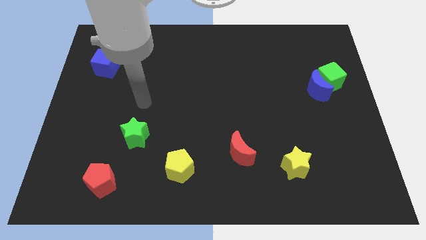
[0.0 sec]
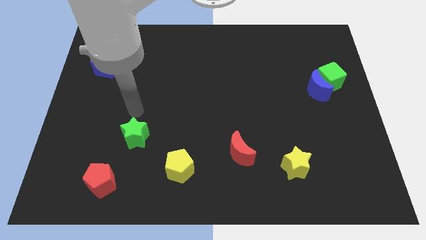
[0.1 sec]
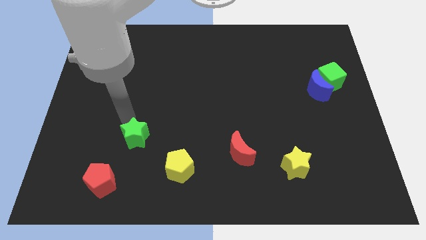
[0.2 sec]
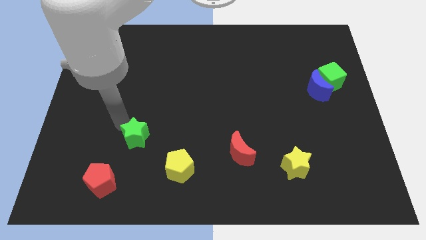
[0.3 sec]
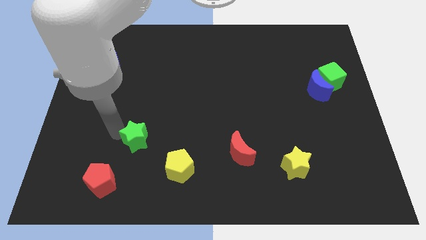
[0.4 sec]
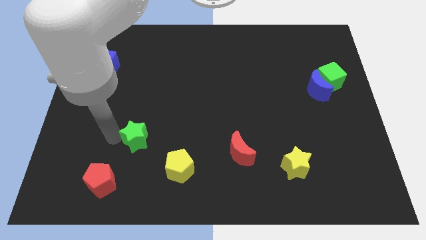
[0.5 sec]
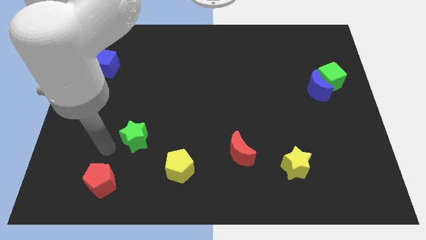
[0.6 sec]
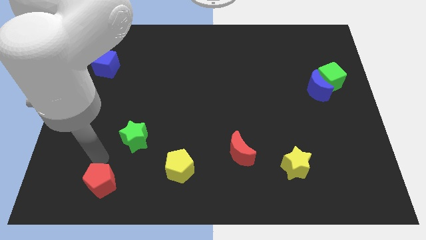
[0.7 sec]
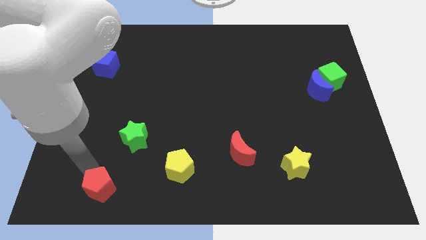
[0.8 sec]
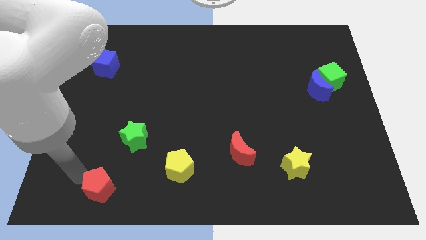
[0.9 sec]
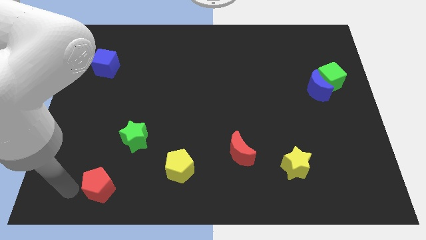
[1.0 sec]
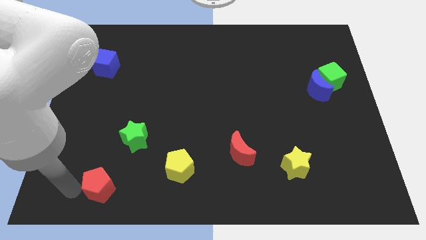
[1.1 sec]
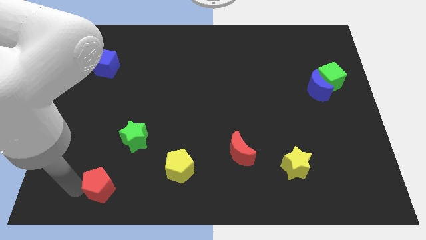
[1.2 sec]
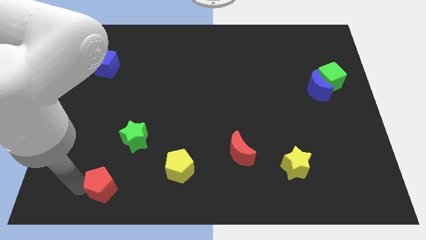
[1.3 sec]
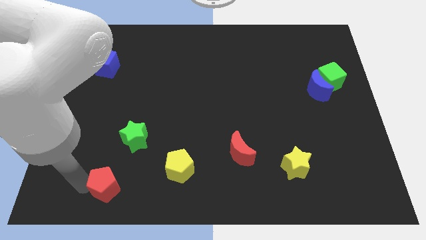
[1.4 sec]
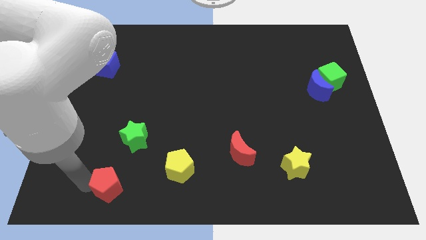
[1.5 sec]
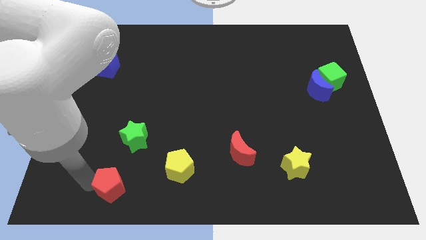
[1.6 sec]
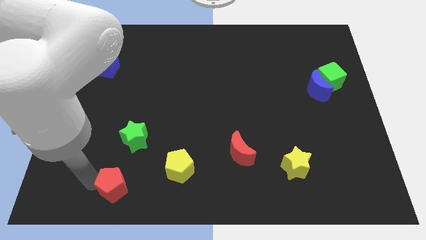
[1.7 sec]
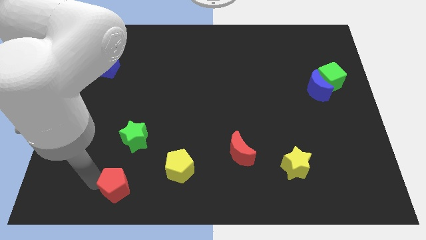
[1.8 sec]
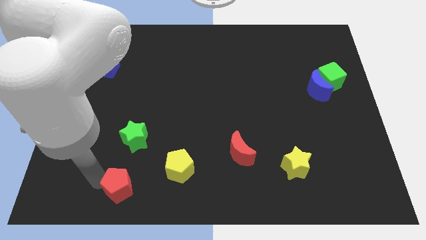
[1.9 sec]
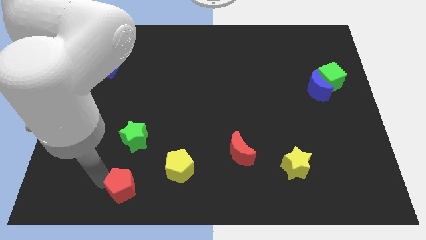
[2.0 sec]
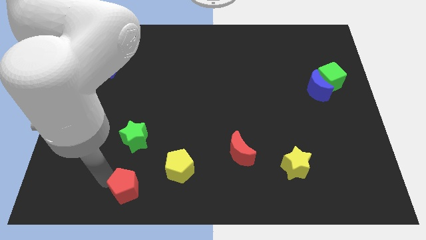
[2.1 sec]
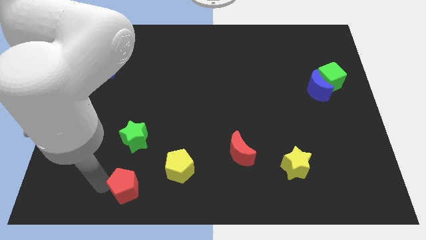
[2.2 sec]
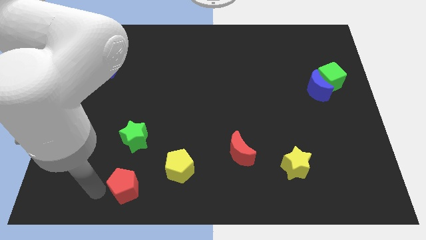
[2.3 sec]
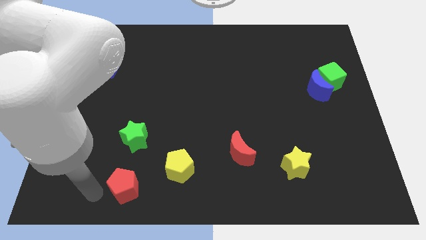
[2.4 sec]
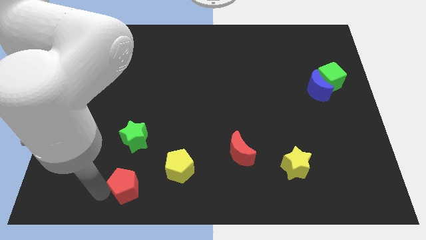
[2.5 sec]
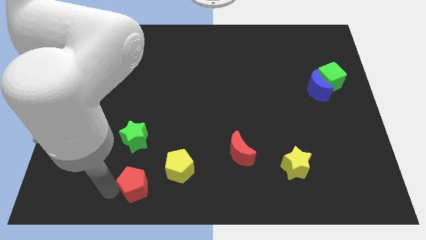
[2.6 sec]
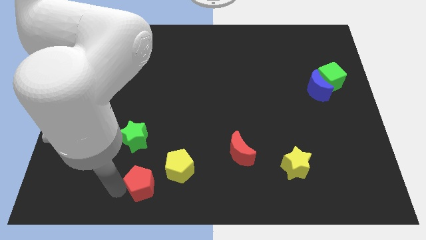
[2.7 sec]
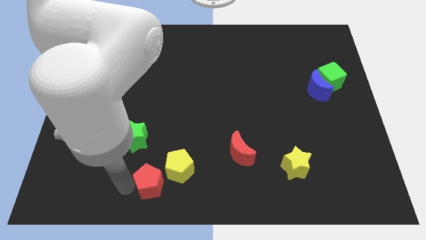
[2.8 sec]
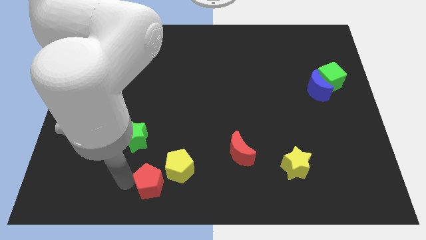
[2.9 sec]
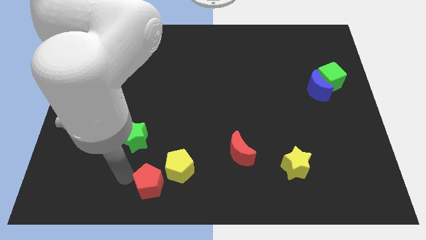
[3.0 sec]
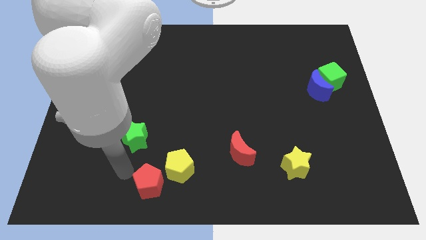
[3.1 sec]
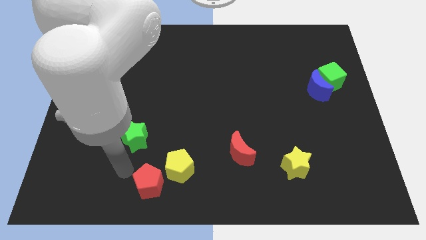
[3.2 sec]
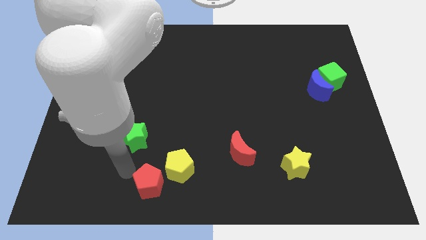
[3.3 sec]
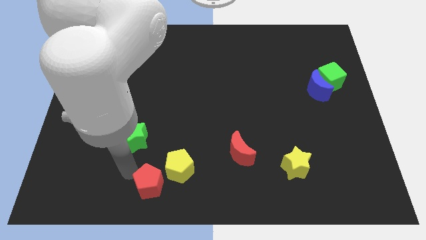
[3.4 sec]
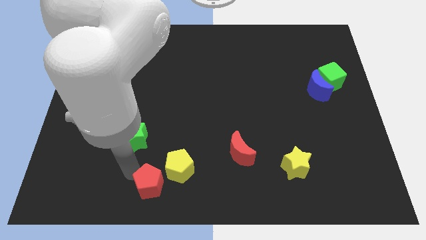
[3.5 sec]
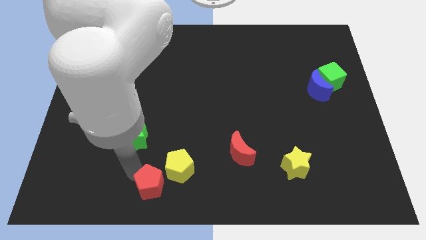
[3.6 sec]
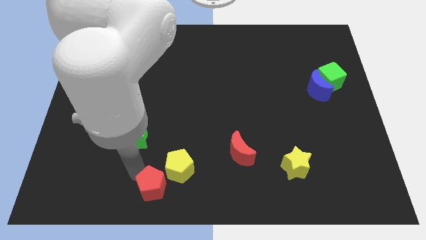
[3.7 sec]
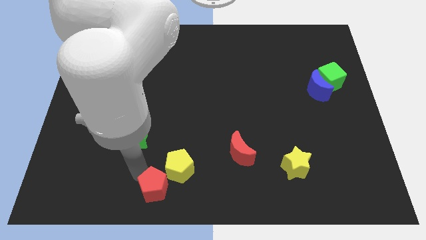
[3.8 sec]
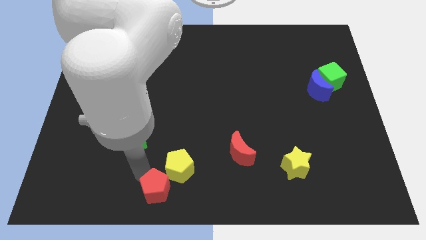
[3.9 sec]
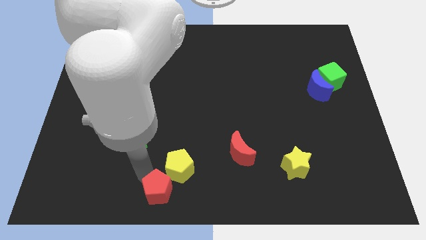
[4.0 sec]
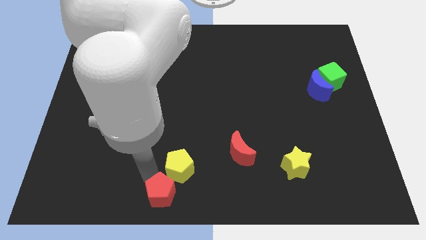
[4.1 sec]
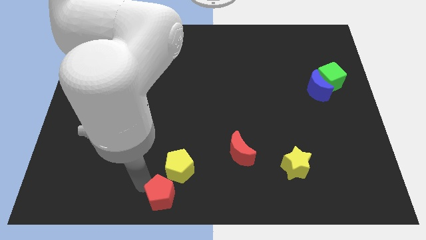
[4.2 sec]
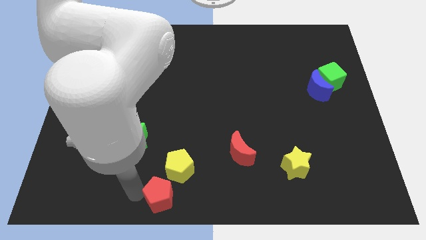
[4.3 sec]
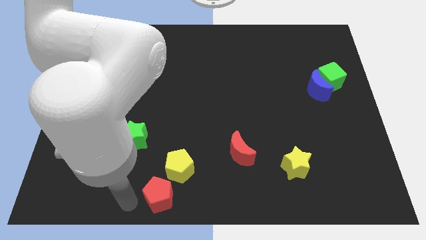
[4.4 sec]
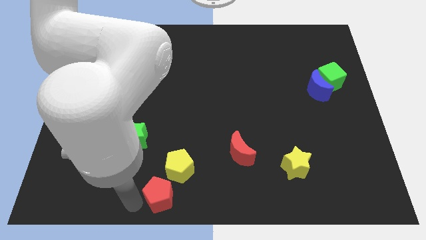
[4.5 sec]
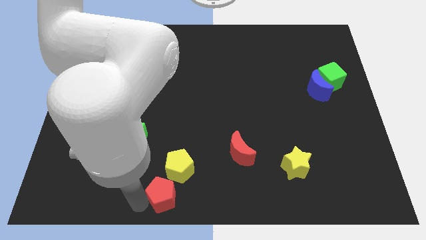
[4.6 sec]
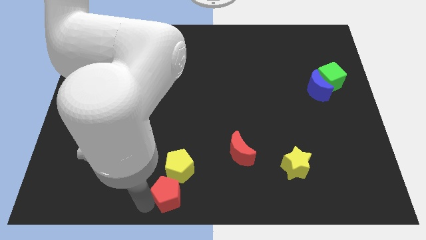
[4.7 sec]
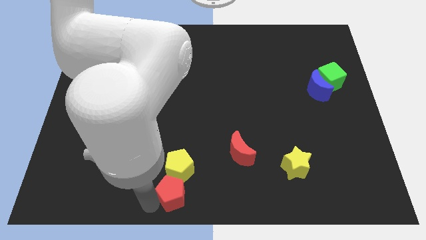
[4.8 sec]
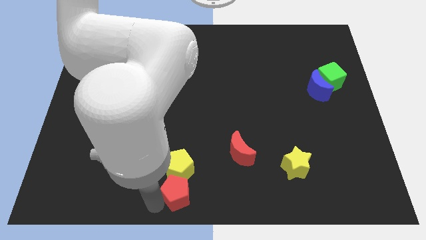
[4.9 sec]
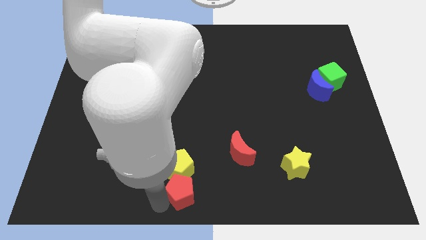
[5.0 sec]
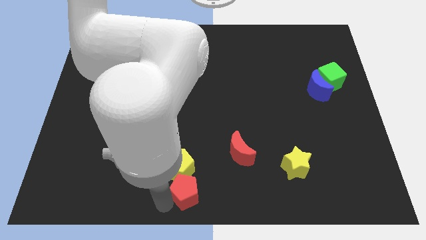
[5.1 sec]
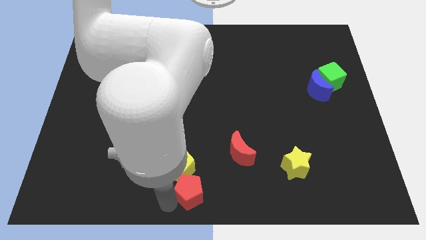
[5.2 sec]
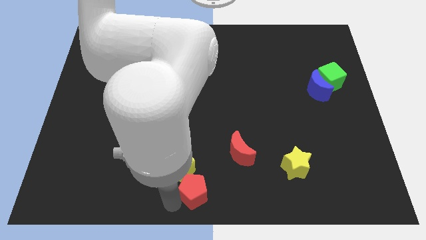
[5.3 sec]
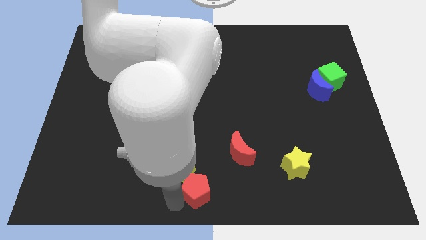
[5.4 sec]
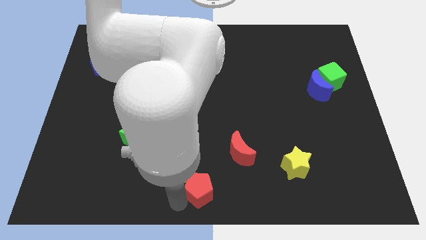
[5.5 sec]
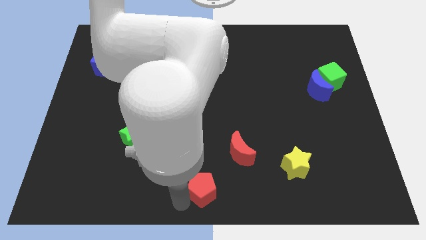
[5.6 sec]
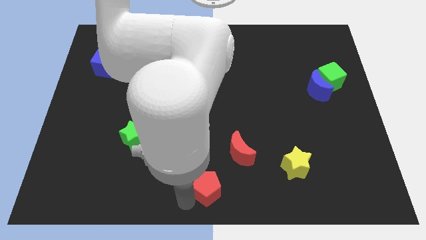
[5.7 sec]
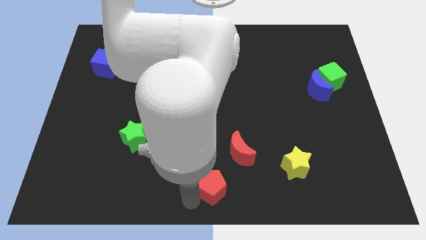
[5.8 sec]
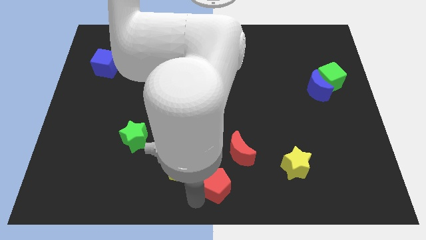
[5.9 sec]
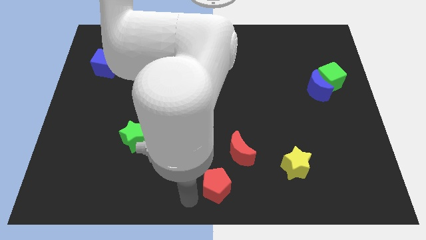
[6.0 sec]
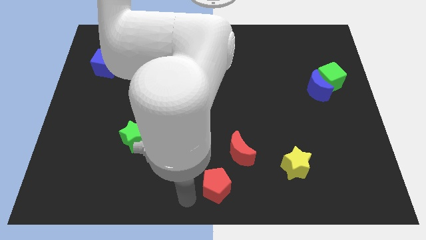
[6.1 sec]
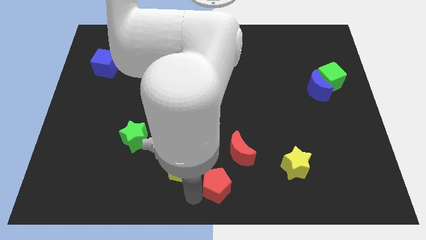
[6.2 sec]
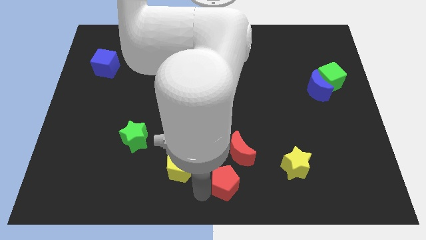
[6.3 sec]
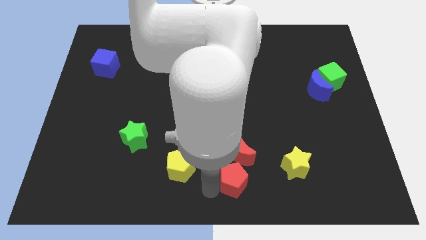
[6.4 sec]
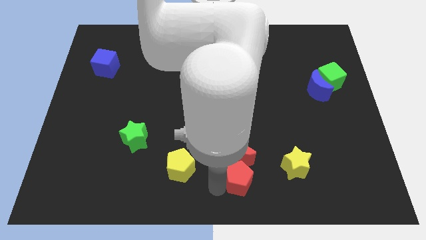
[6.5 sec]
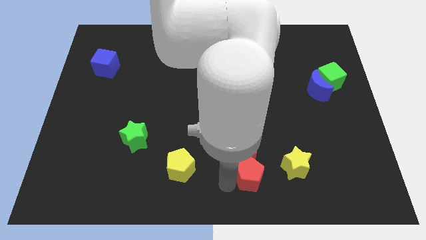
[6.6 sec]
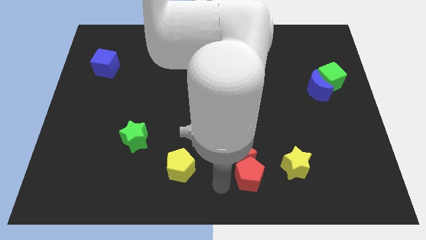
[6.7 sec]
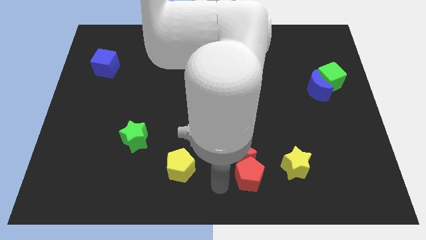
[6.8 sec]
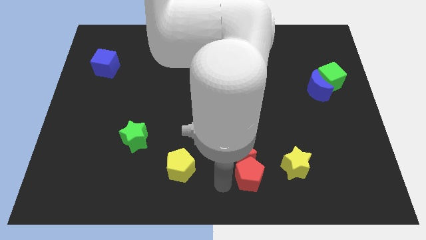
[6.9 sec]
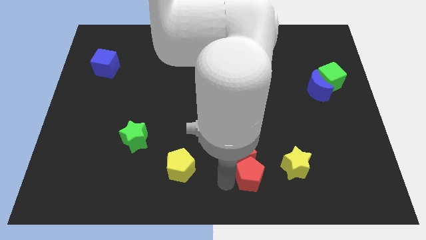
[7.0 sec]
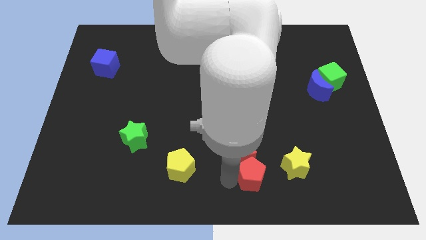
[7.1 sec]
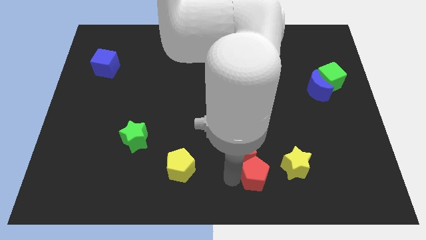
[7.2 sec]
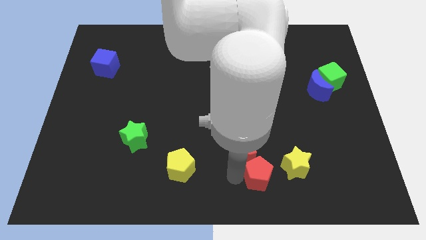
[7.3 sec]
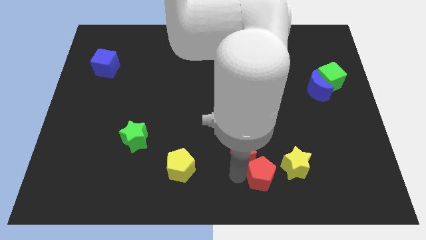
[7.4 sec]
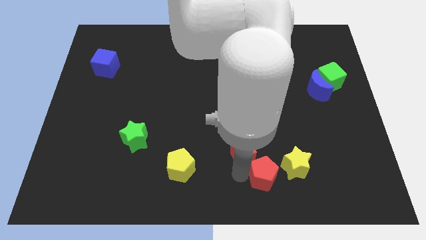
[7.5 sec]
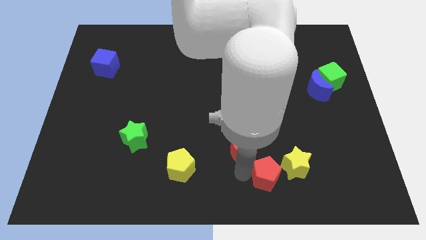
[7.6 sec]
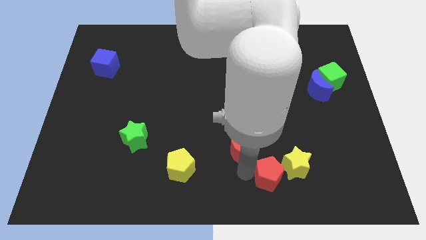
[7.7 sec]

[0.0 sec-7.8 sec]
move the red pentagon close to the yellow star
